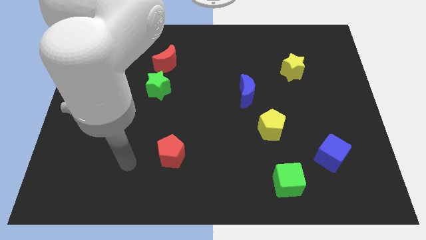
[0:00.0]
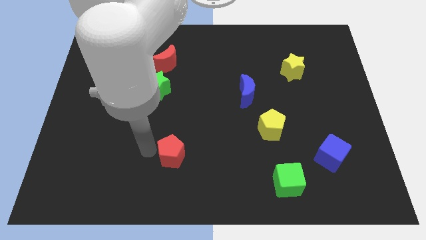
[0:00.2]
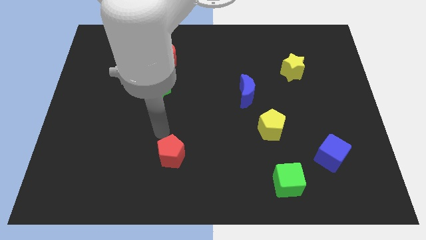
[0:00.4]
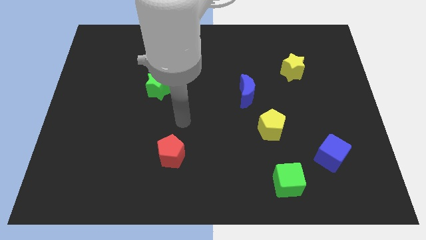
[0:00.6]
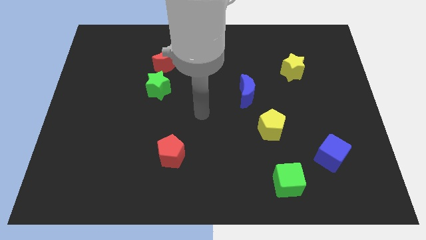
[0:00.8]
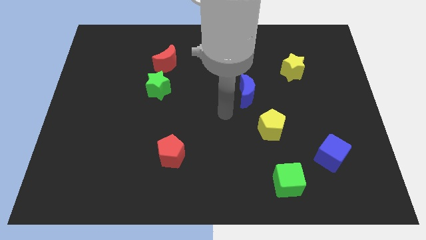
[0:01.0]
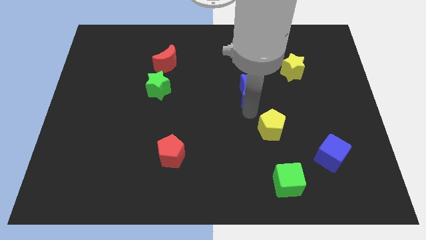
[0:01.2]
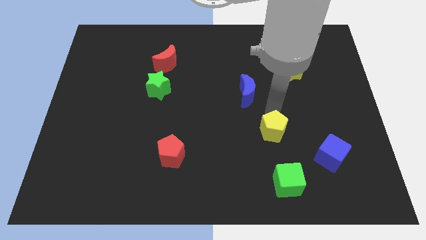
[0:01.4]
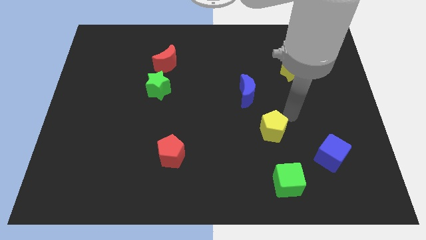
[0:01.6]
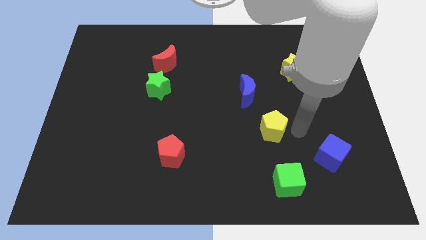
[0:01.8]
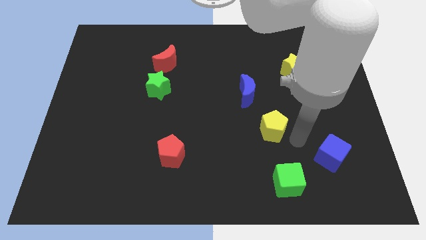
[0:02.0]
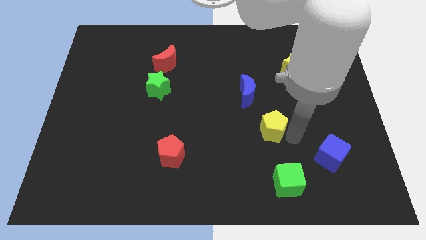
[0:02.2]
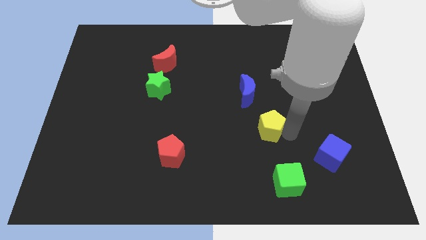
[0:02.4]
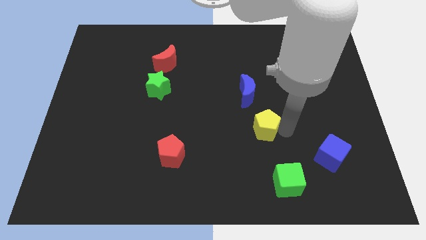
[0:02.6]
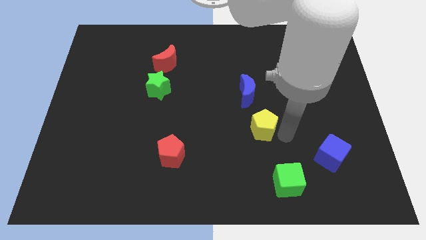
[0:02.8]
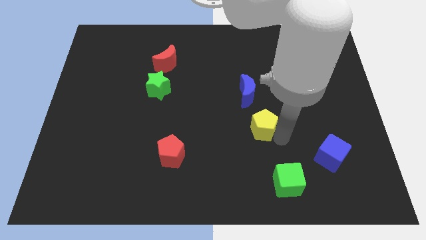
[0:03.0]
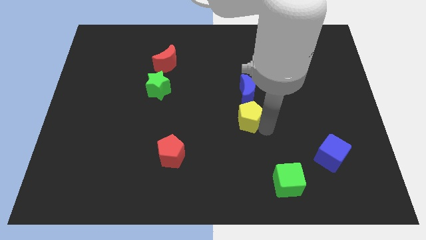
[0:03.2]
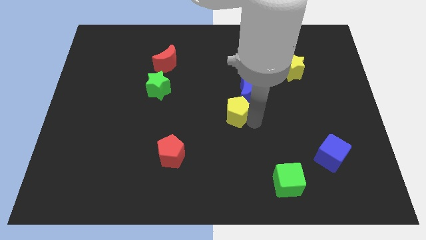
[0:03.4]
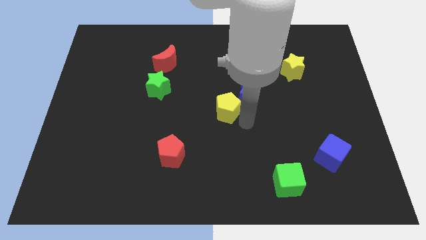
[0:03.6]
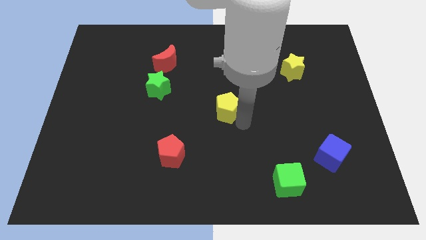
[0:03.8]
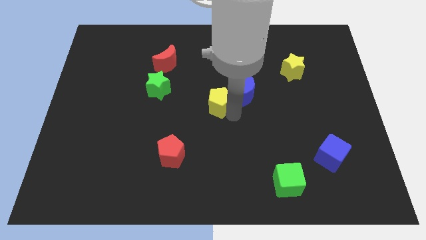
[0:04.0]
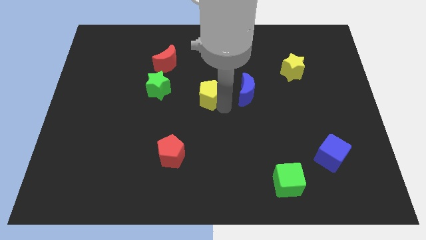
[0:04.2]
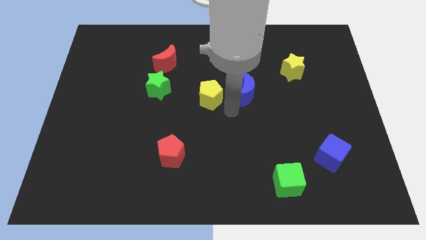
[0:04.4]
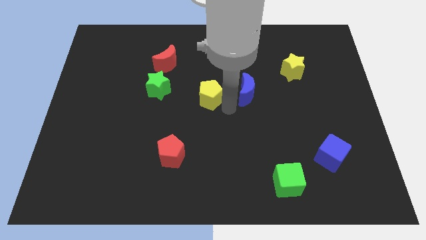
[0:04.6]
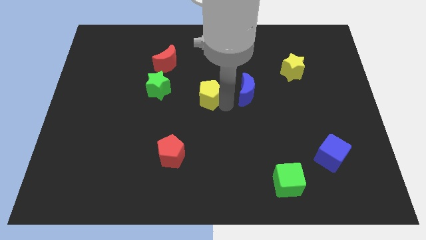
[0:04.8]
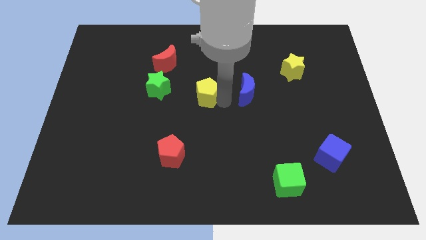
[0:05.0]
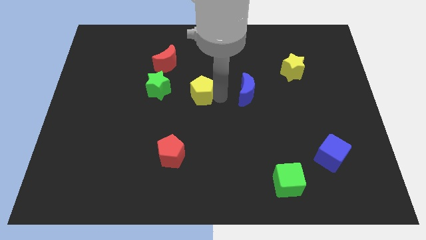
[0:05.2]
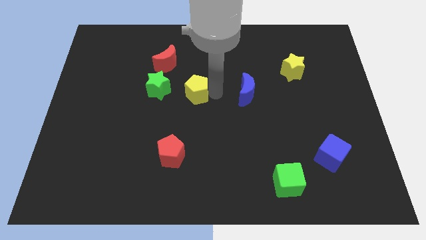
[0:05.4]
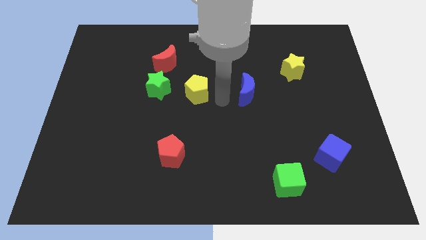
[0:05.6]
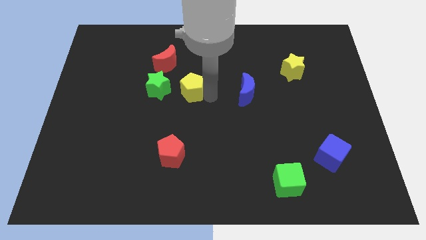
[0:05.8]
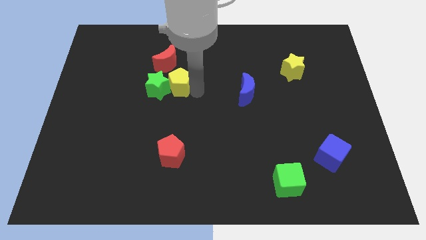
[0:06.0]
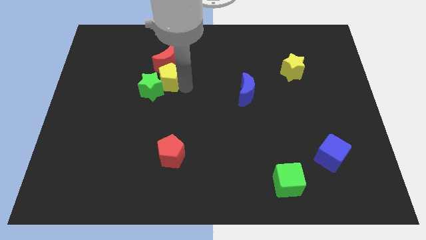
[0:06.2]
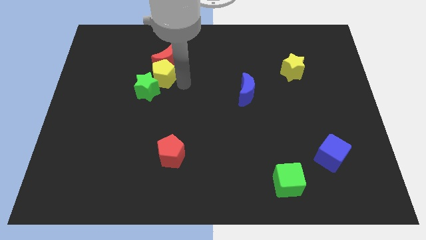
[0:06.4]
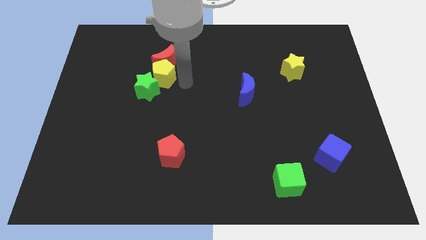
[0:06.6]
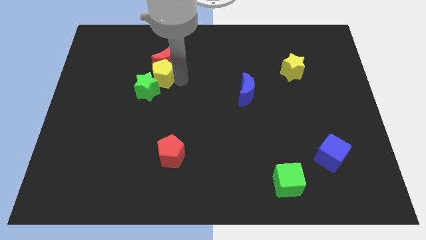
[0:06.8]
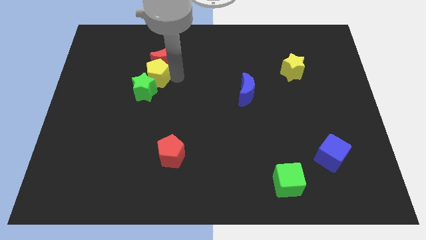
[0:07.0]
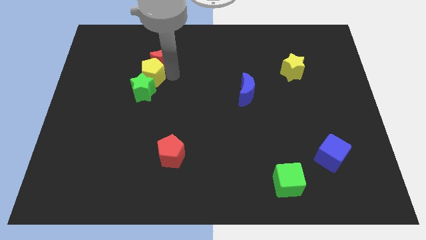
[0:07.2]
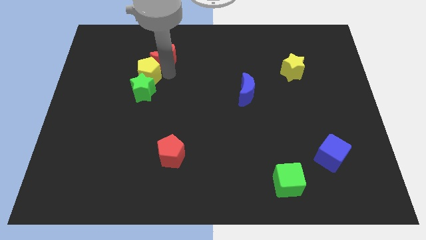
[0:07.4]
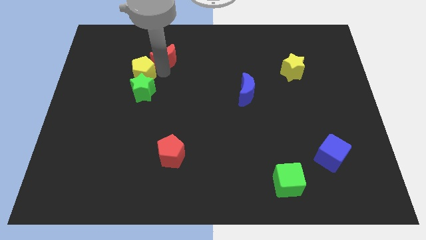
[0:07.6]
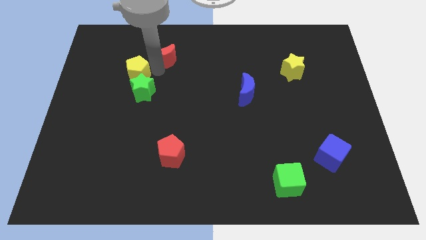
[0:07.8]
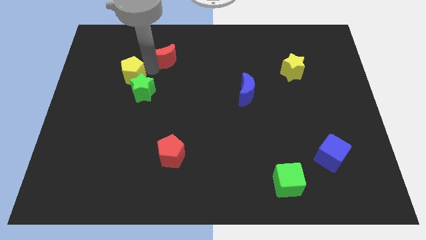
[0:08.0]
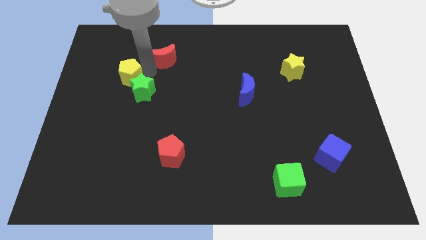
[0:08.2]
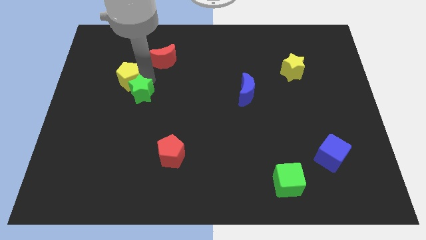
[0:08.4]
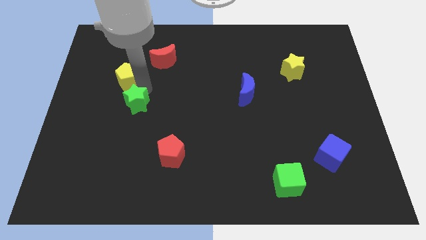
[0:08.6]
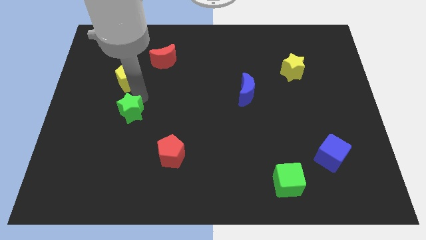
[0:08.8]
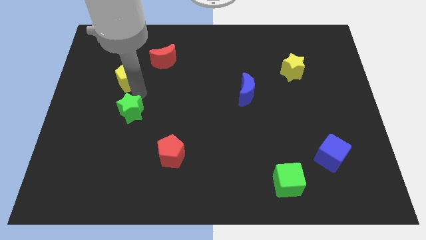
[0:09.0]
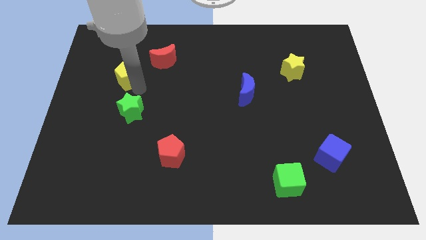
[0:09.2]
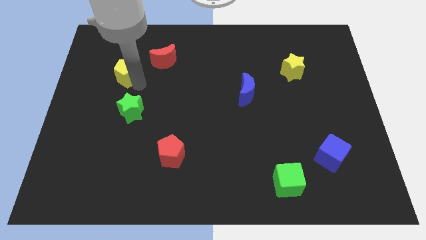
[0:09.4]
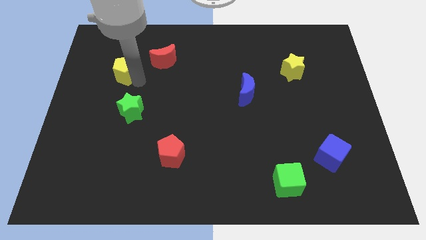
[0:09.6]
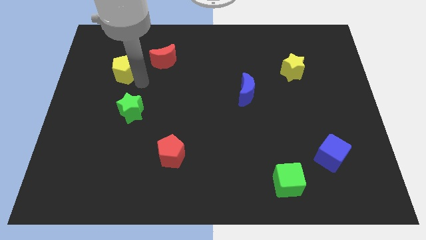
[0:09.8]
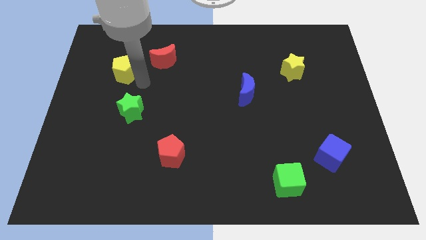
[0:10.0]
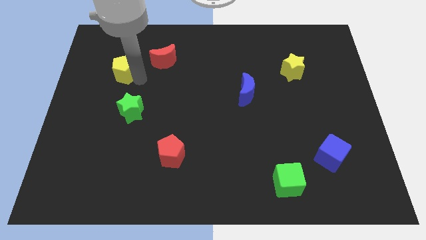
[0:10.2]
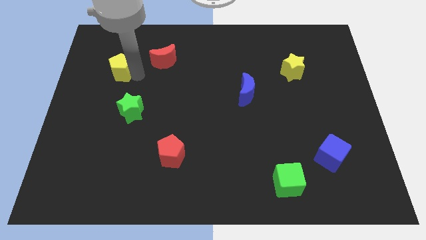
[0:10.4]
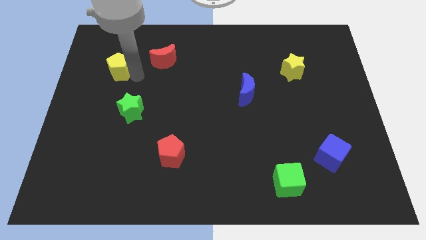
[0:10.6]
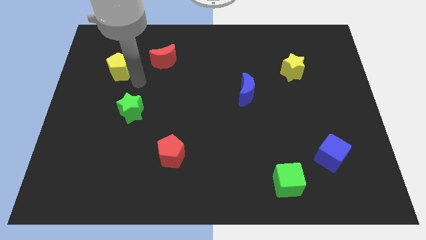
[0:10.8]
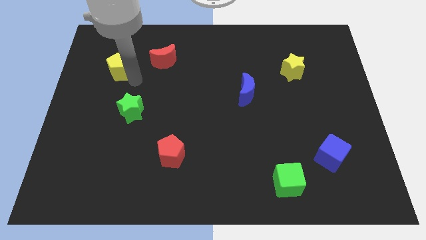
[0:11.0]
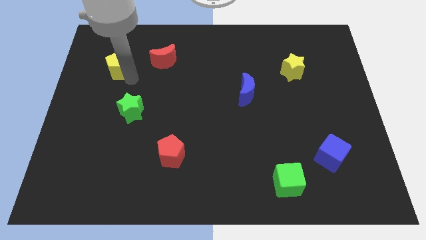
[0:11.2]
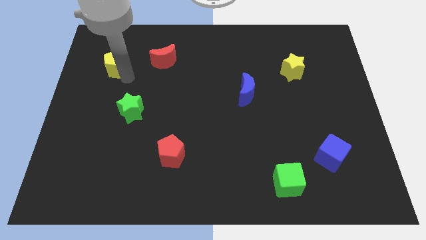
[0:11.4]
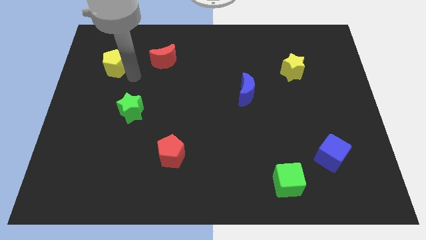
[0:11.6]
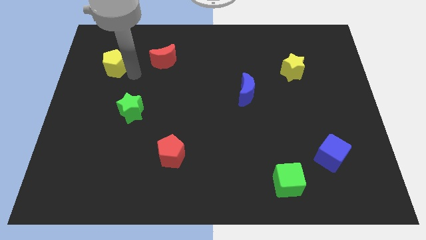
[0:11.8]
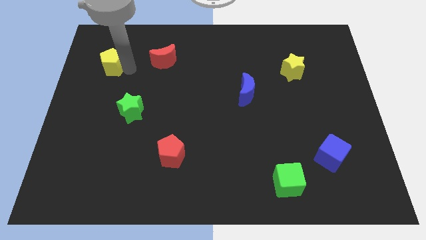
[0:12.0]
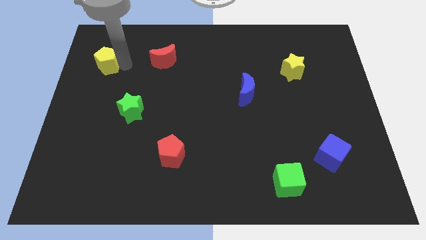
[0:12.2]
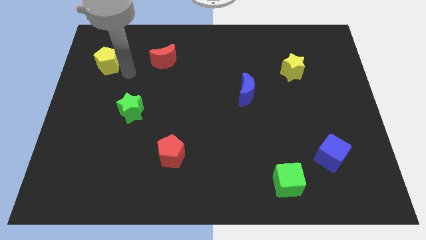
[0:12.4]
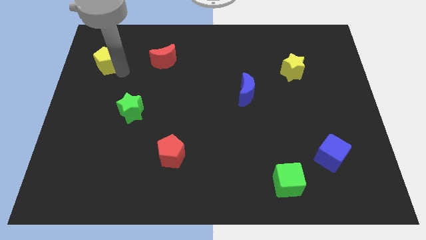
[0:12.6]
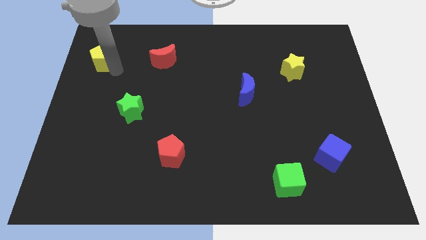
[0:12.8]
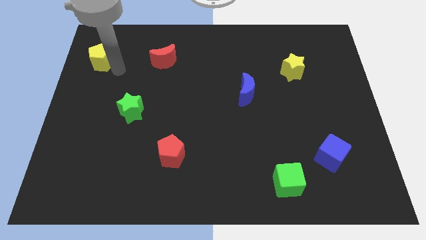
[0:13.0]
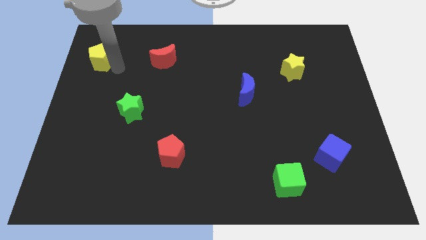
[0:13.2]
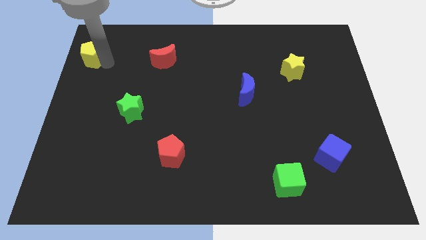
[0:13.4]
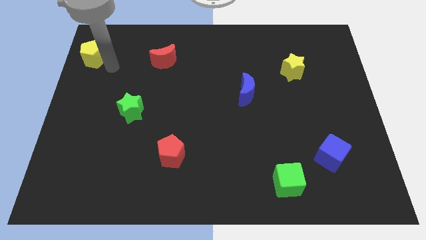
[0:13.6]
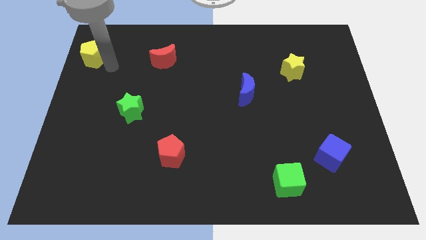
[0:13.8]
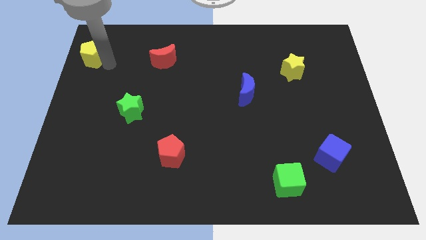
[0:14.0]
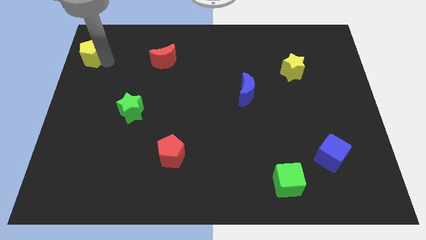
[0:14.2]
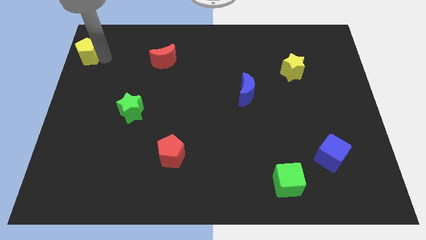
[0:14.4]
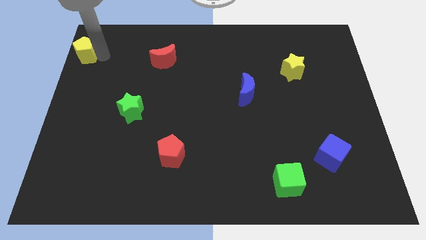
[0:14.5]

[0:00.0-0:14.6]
slide the yellow pentagon to the top left
